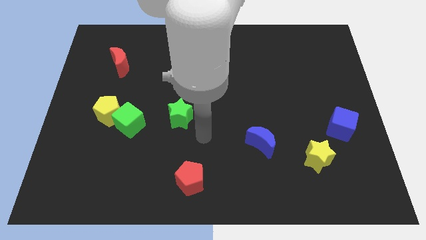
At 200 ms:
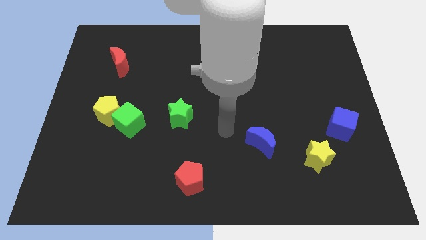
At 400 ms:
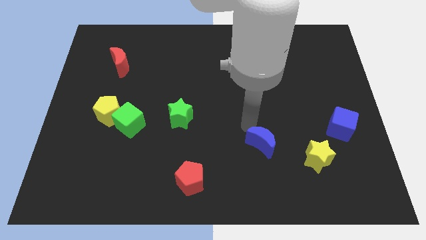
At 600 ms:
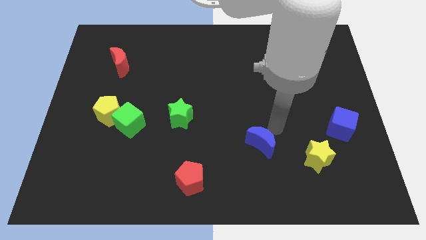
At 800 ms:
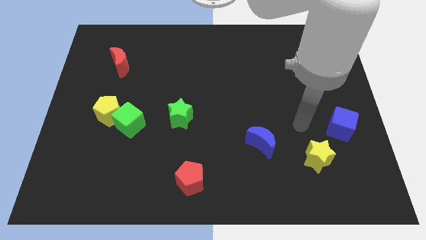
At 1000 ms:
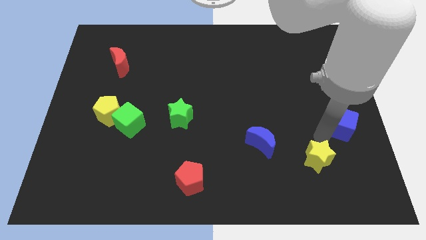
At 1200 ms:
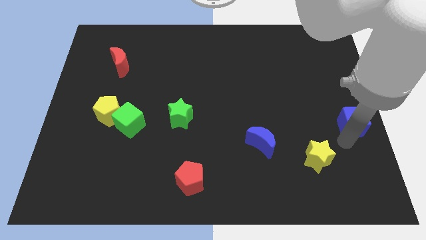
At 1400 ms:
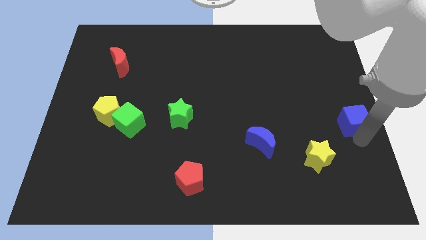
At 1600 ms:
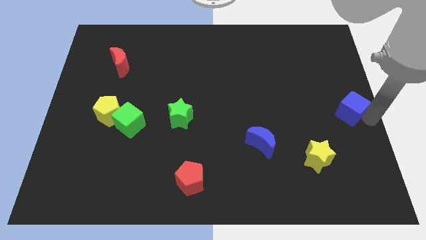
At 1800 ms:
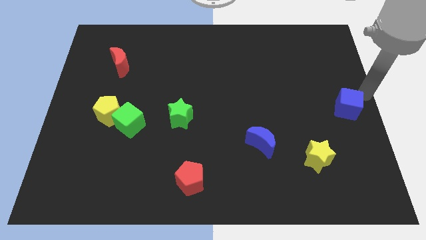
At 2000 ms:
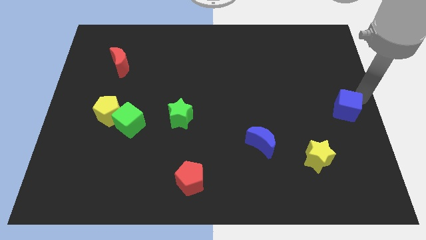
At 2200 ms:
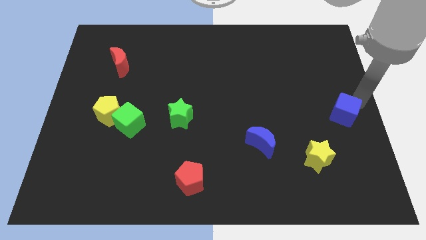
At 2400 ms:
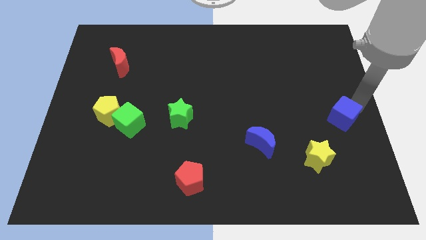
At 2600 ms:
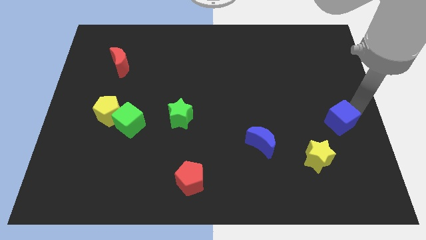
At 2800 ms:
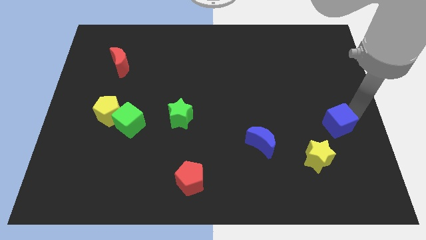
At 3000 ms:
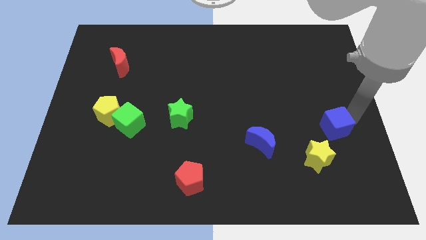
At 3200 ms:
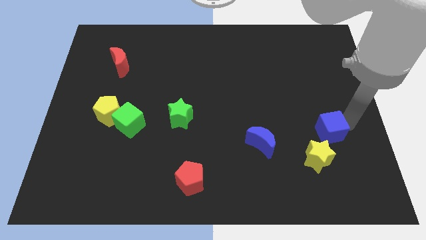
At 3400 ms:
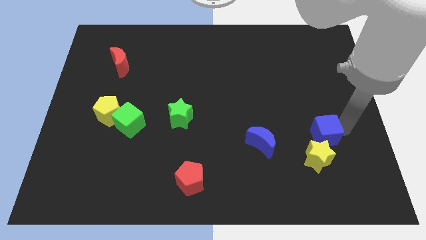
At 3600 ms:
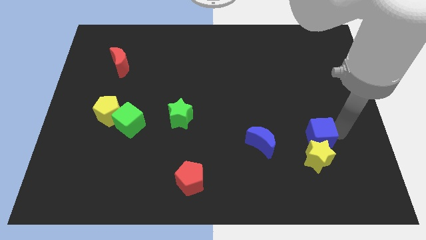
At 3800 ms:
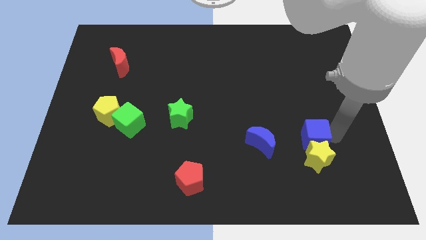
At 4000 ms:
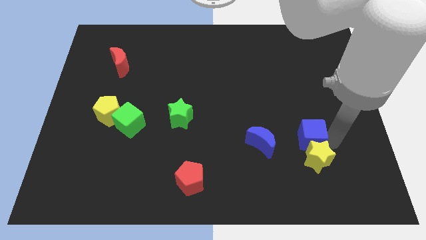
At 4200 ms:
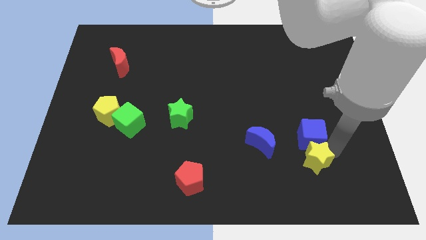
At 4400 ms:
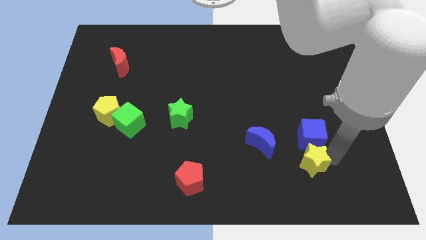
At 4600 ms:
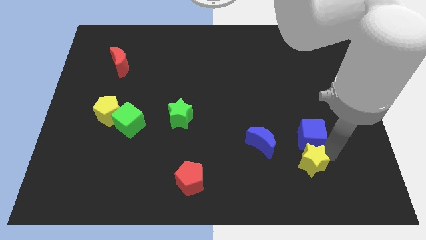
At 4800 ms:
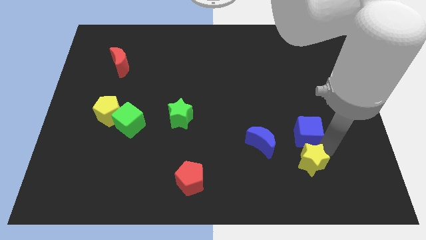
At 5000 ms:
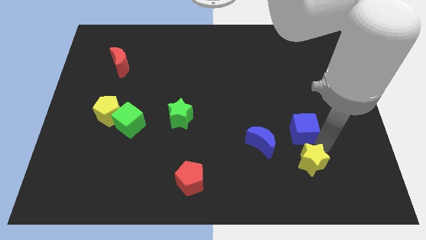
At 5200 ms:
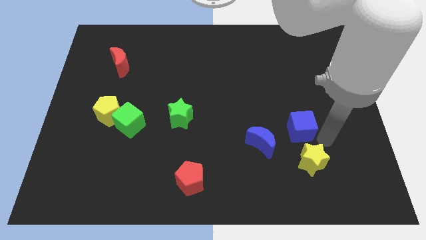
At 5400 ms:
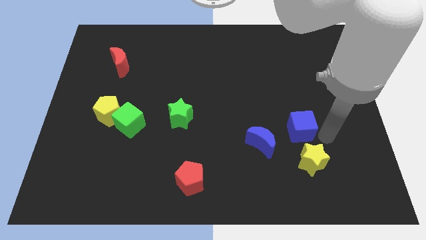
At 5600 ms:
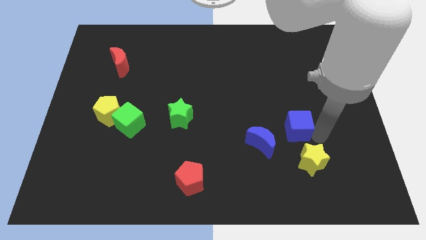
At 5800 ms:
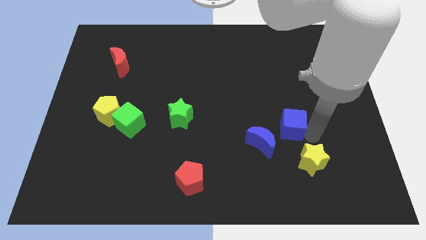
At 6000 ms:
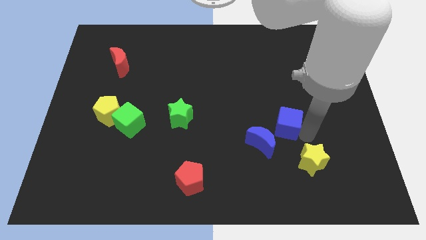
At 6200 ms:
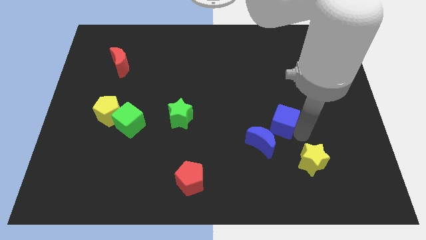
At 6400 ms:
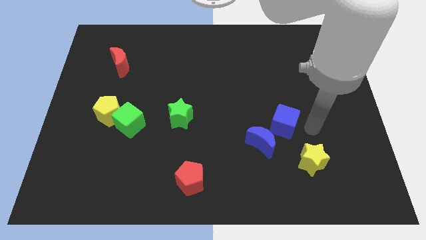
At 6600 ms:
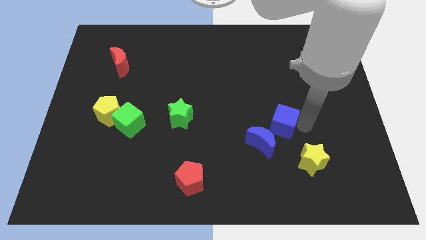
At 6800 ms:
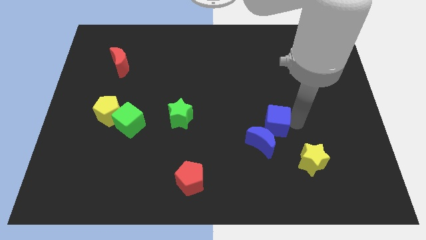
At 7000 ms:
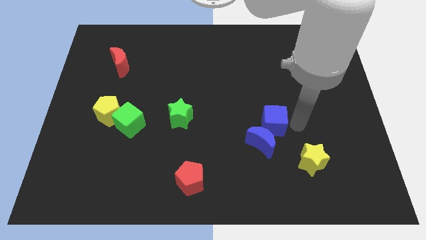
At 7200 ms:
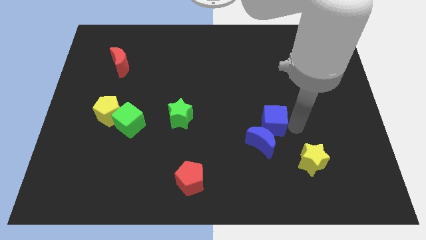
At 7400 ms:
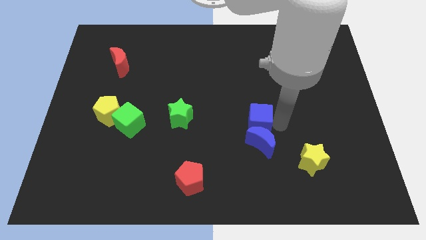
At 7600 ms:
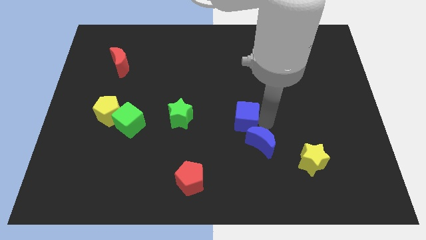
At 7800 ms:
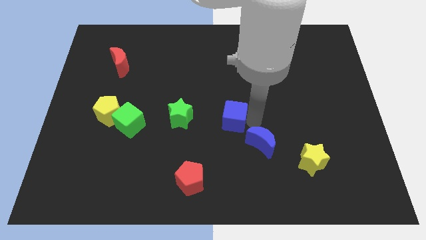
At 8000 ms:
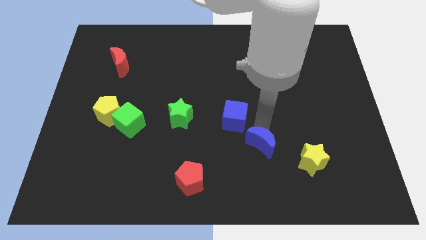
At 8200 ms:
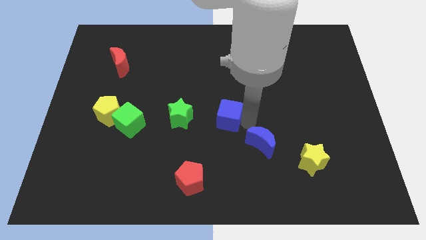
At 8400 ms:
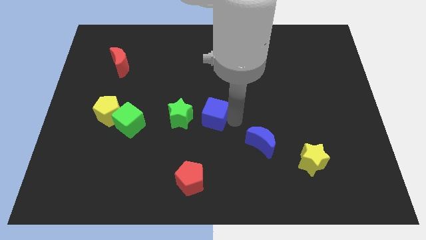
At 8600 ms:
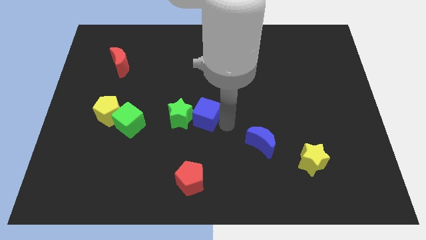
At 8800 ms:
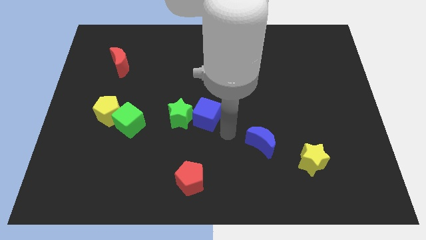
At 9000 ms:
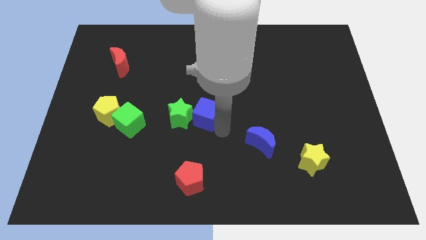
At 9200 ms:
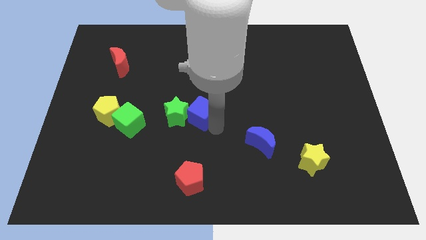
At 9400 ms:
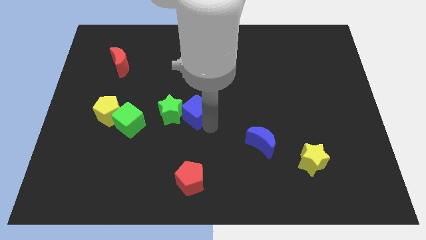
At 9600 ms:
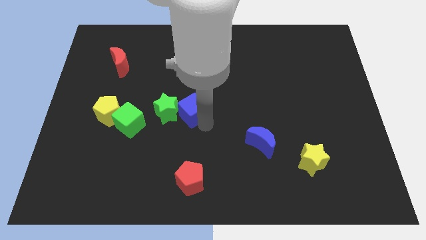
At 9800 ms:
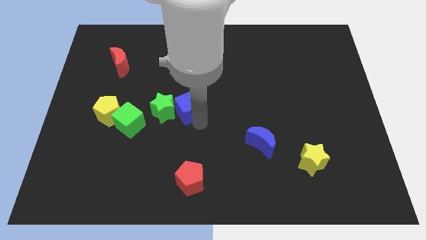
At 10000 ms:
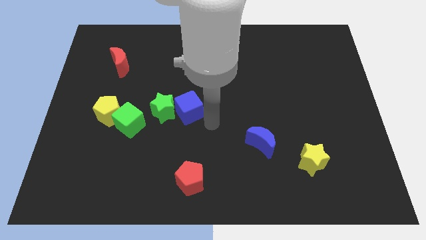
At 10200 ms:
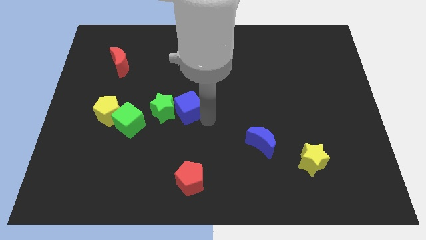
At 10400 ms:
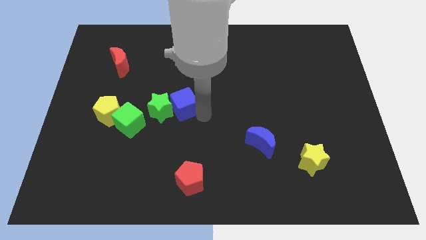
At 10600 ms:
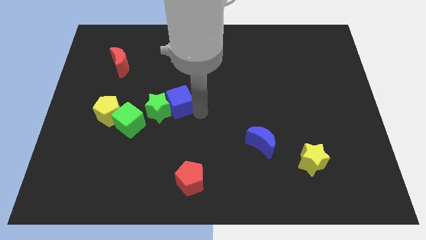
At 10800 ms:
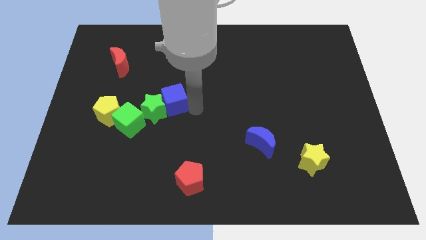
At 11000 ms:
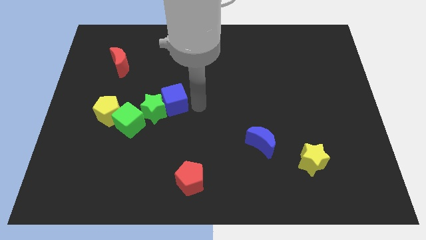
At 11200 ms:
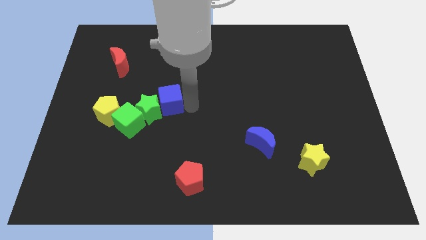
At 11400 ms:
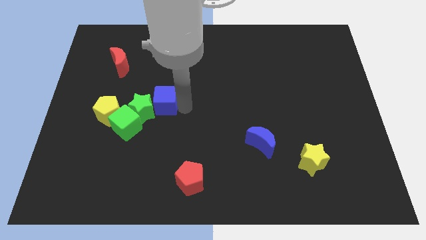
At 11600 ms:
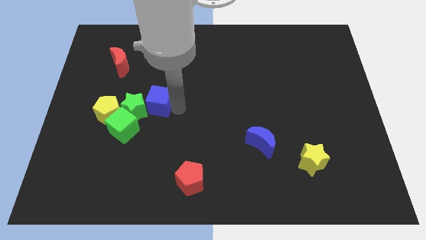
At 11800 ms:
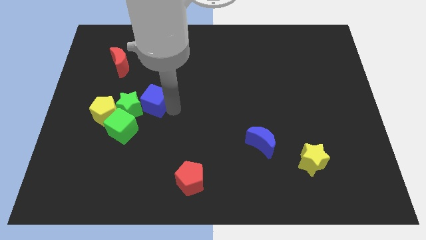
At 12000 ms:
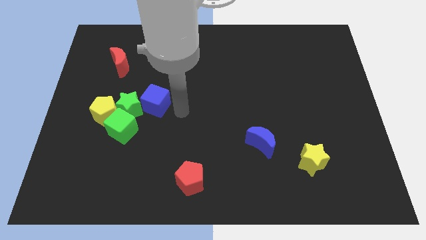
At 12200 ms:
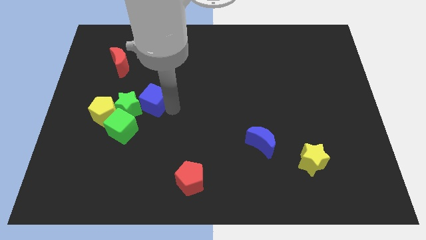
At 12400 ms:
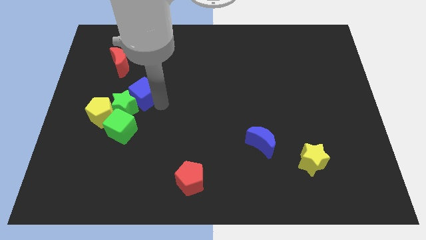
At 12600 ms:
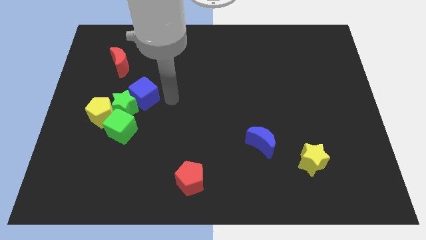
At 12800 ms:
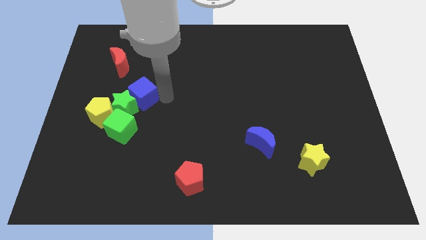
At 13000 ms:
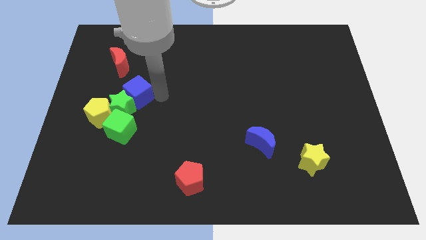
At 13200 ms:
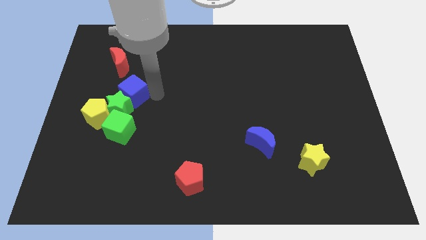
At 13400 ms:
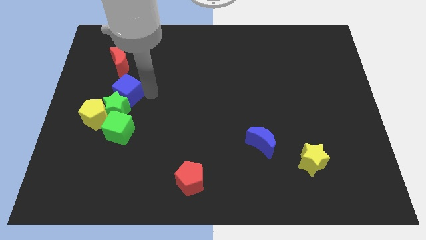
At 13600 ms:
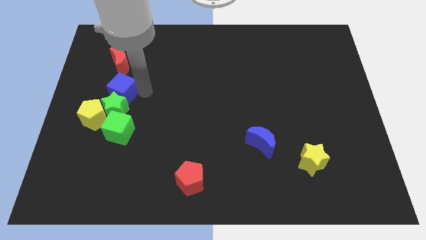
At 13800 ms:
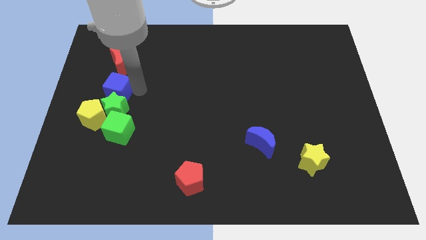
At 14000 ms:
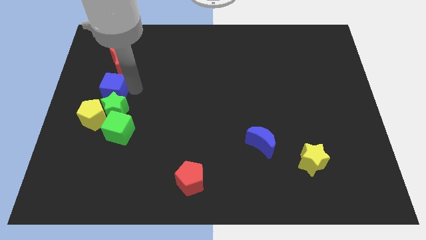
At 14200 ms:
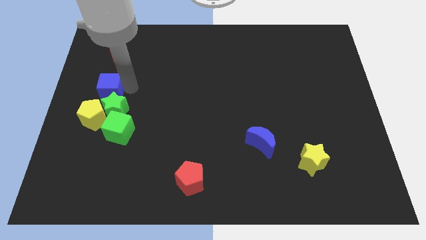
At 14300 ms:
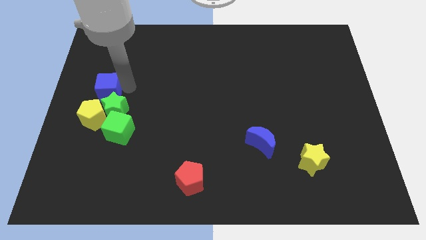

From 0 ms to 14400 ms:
slide the blue cube to the left side of the board
